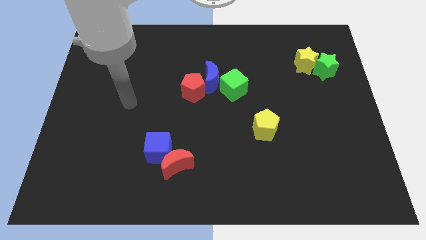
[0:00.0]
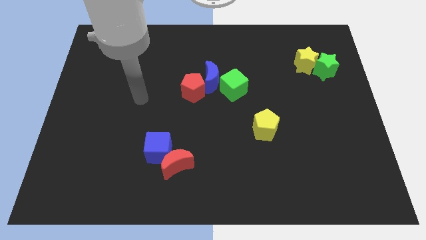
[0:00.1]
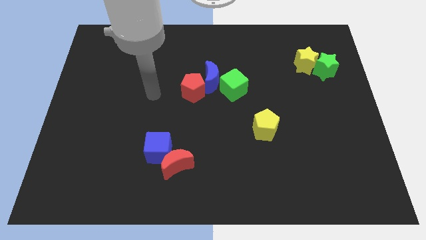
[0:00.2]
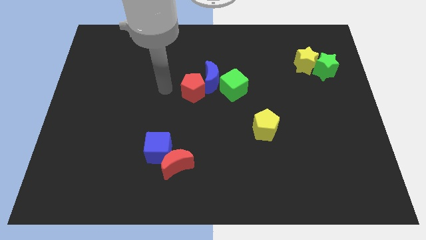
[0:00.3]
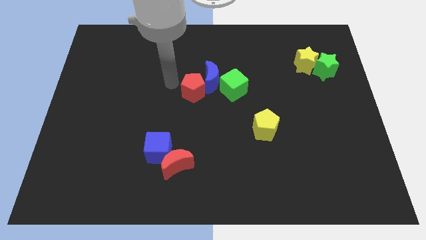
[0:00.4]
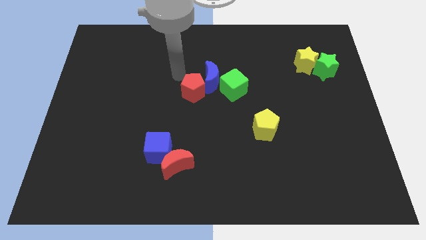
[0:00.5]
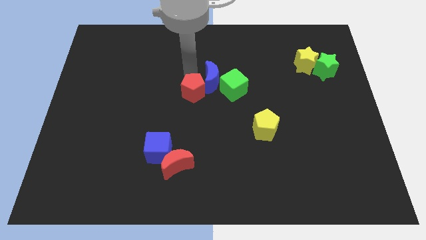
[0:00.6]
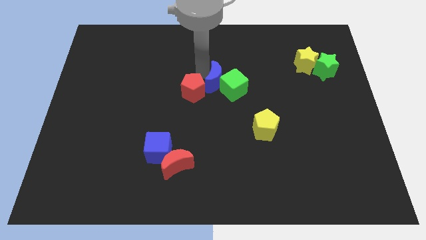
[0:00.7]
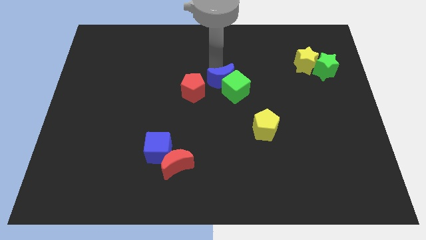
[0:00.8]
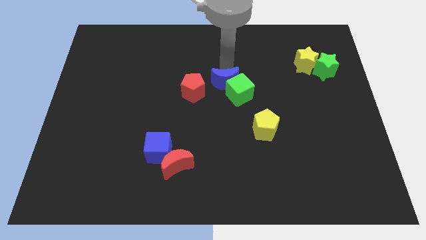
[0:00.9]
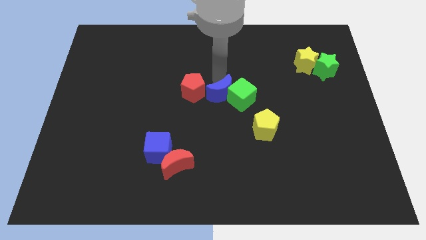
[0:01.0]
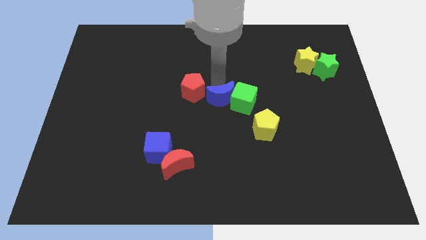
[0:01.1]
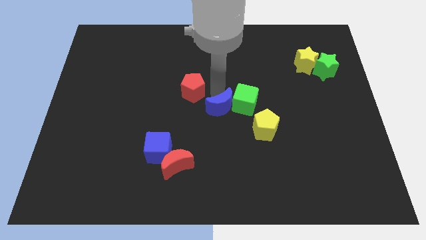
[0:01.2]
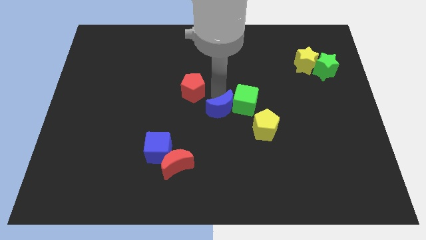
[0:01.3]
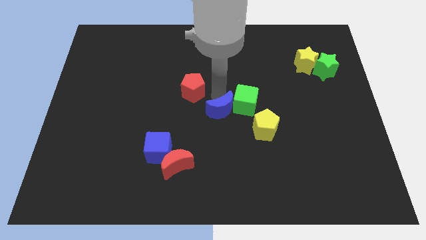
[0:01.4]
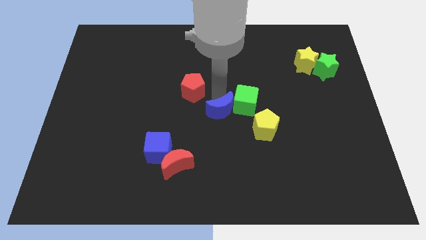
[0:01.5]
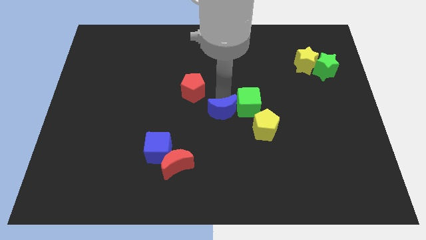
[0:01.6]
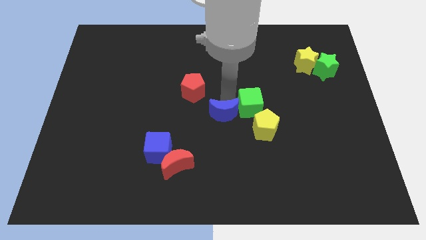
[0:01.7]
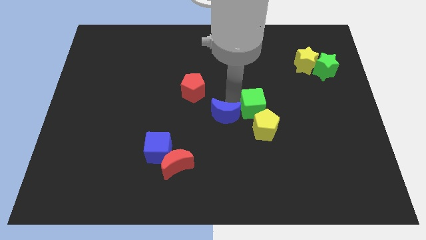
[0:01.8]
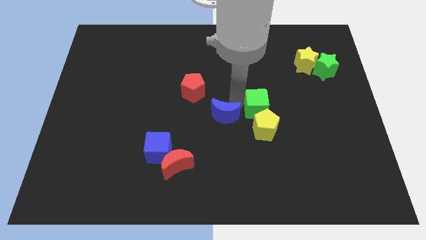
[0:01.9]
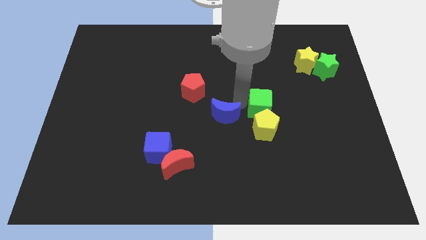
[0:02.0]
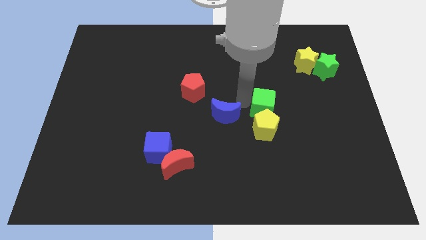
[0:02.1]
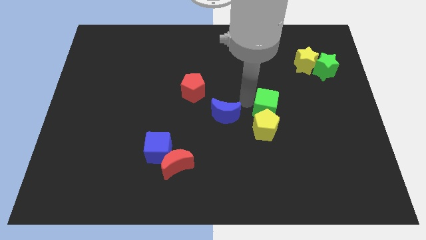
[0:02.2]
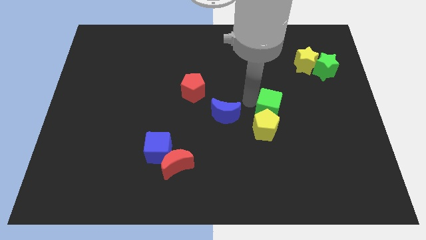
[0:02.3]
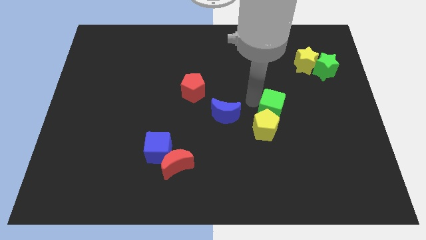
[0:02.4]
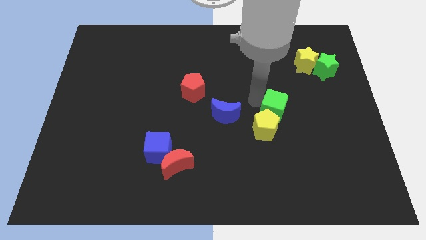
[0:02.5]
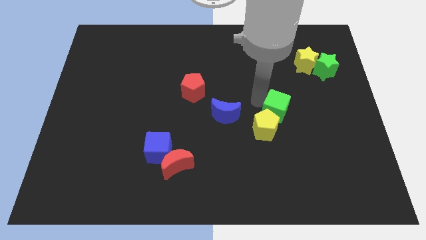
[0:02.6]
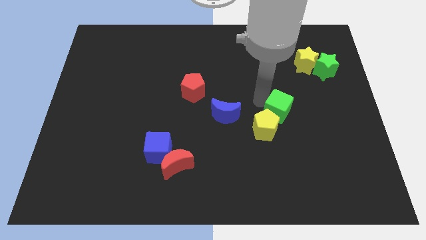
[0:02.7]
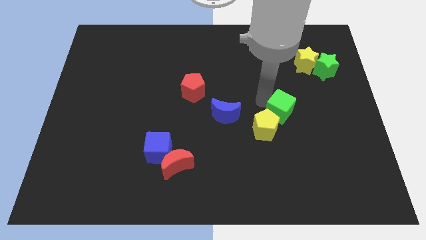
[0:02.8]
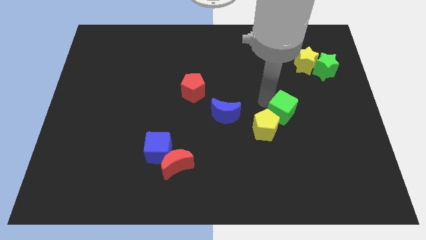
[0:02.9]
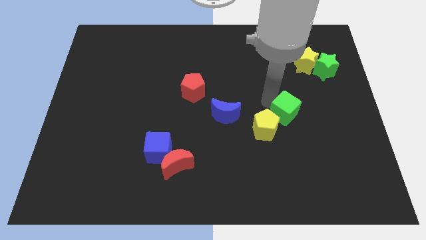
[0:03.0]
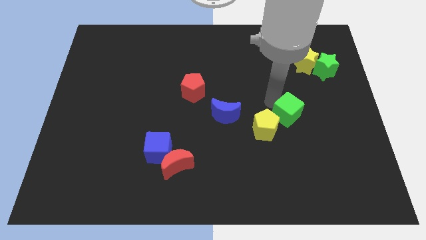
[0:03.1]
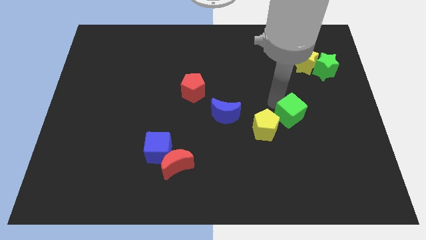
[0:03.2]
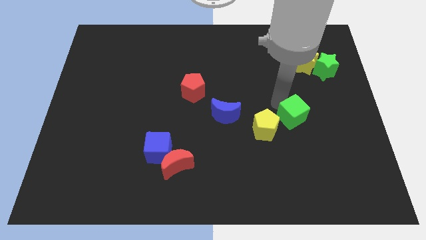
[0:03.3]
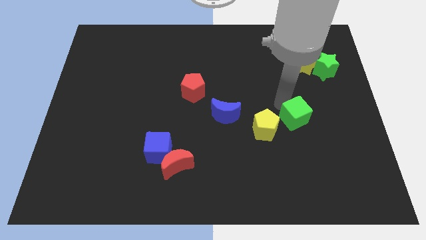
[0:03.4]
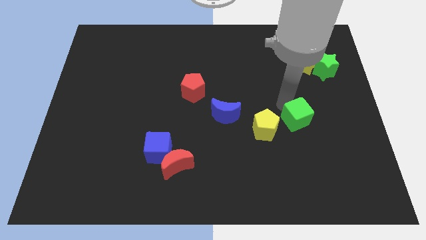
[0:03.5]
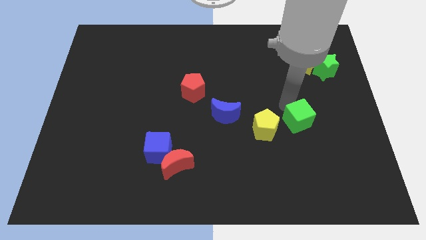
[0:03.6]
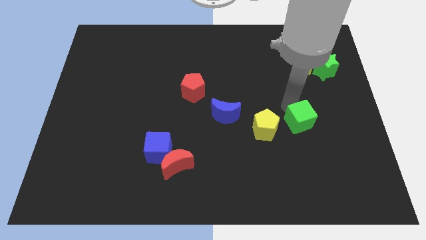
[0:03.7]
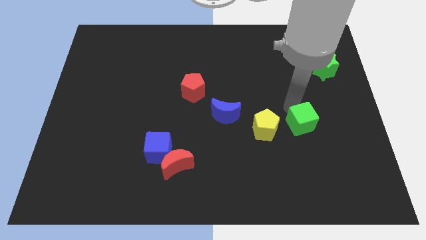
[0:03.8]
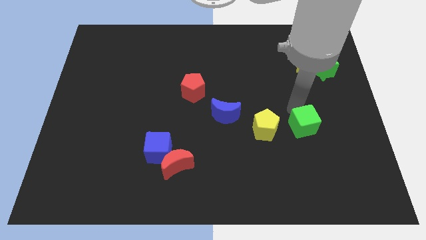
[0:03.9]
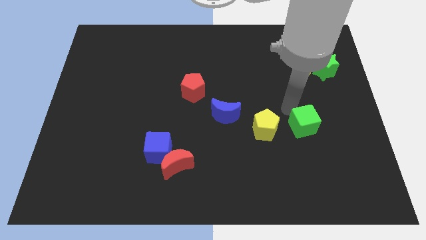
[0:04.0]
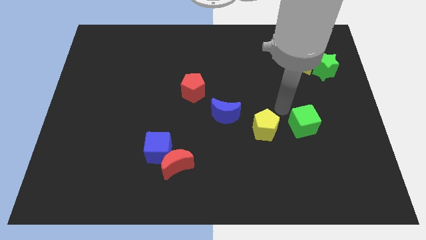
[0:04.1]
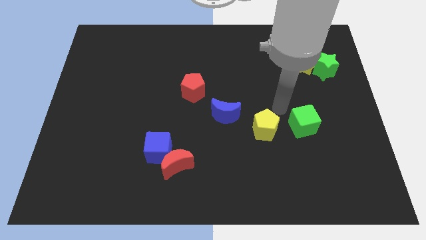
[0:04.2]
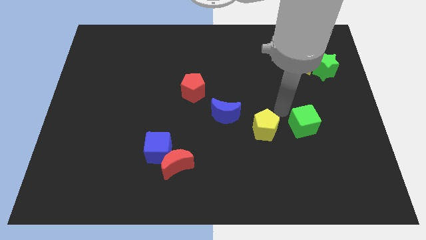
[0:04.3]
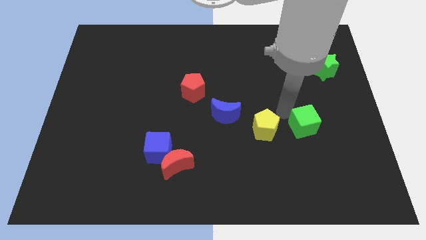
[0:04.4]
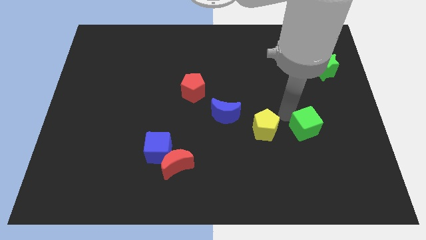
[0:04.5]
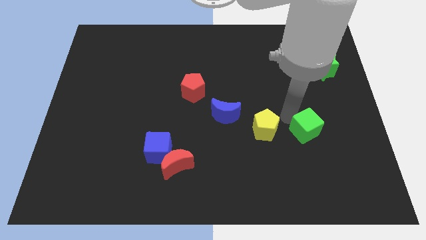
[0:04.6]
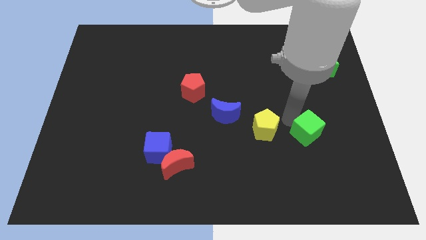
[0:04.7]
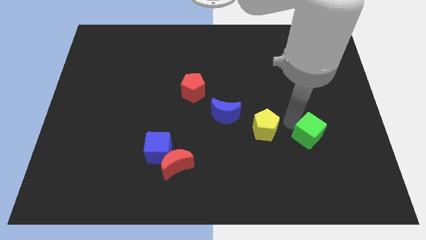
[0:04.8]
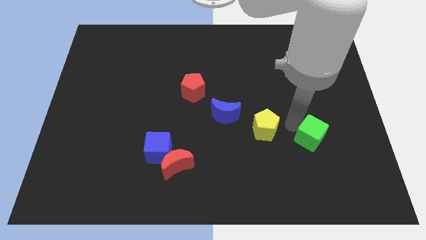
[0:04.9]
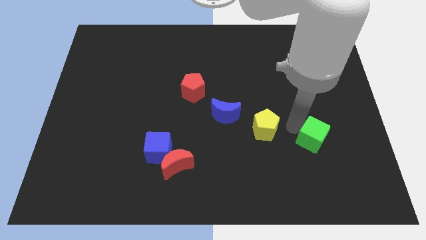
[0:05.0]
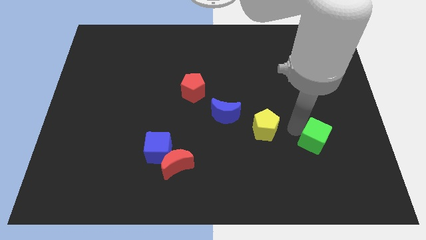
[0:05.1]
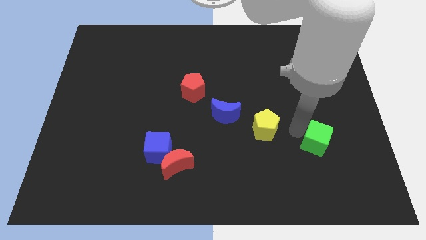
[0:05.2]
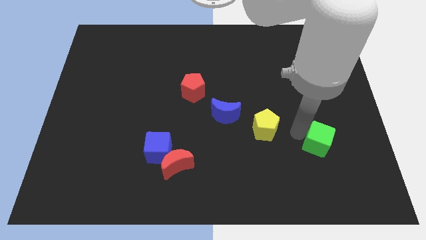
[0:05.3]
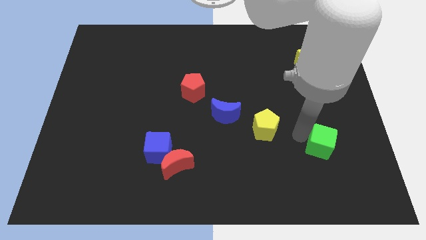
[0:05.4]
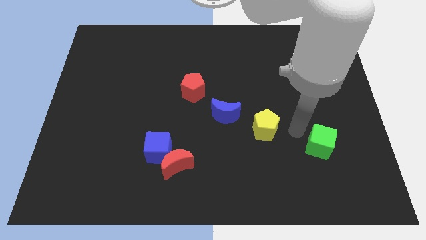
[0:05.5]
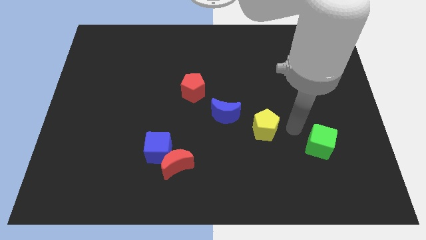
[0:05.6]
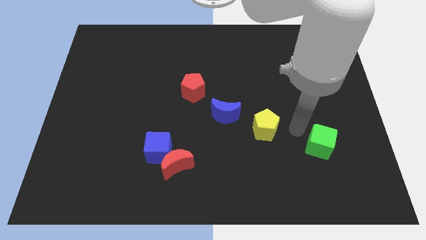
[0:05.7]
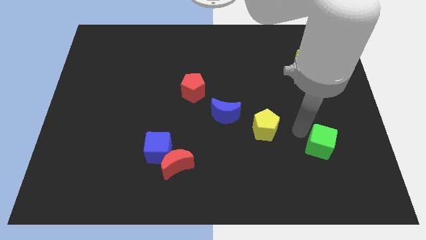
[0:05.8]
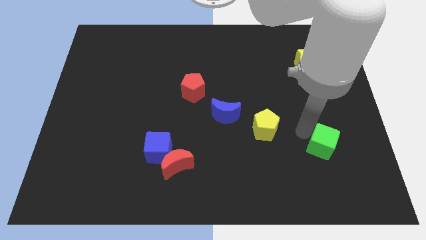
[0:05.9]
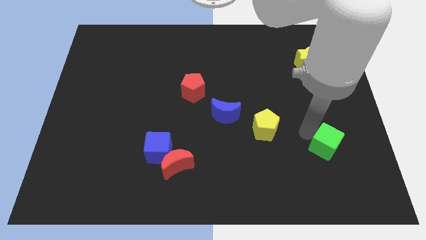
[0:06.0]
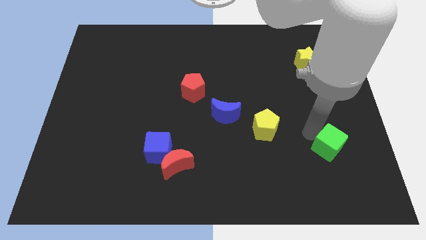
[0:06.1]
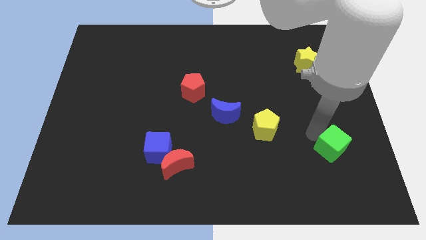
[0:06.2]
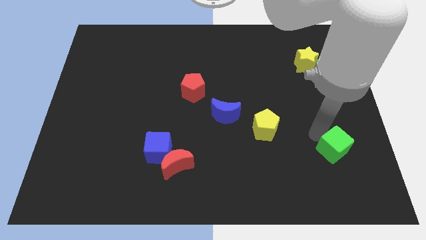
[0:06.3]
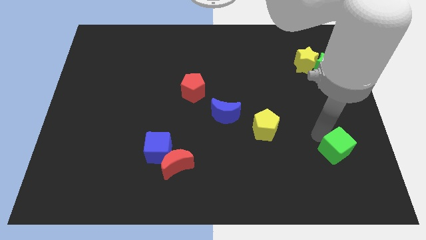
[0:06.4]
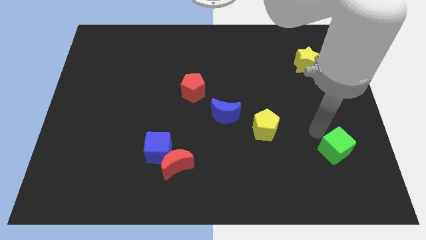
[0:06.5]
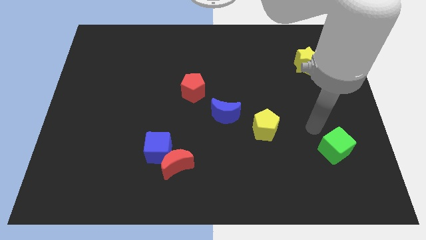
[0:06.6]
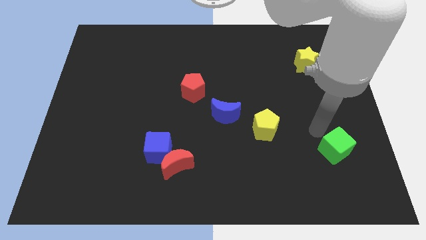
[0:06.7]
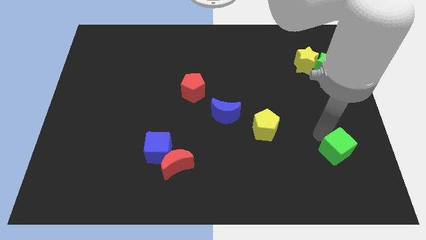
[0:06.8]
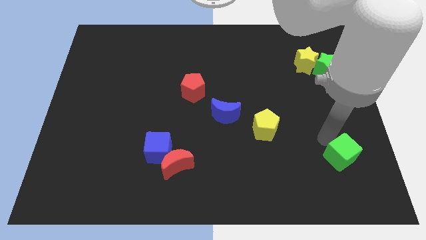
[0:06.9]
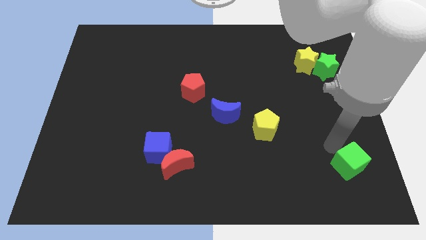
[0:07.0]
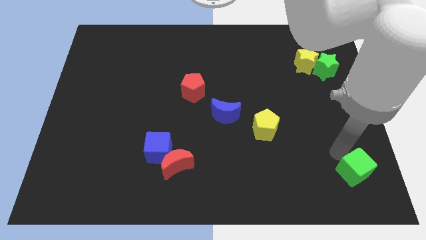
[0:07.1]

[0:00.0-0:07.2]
slide the green cube to the bottom right corner
